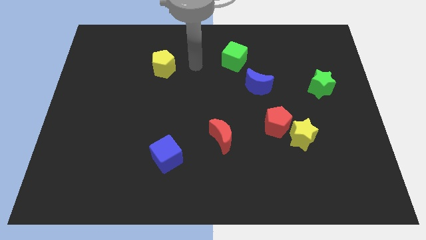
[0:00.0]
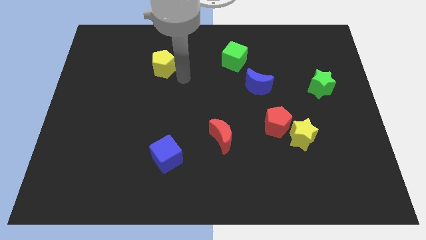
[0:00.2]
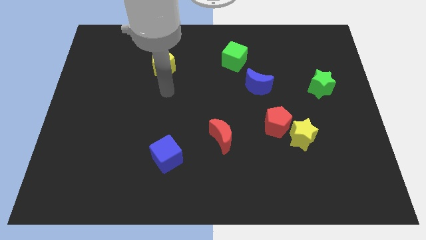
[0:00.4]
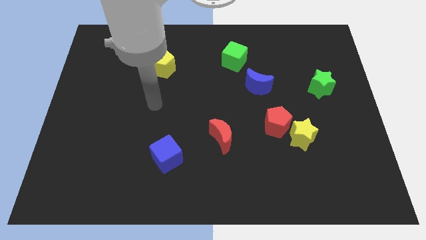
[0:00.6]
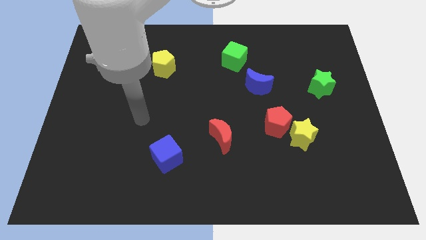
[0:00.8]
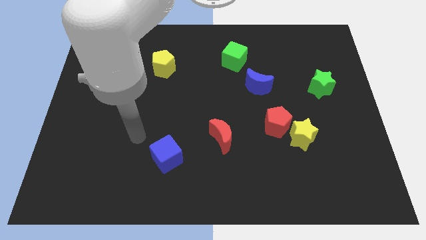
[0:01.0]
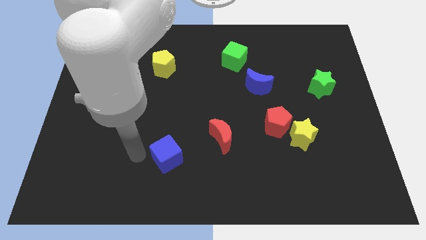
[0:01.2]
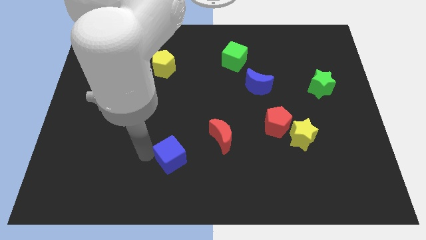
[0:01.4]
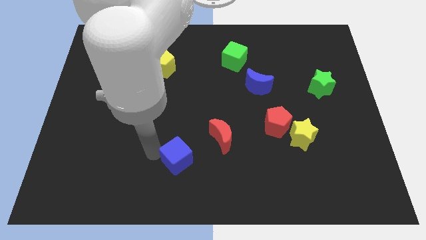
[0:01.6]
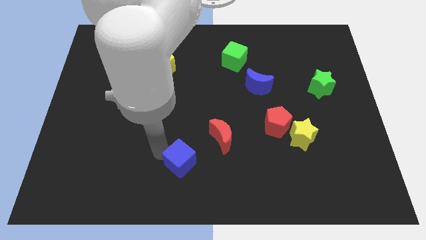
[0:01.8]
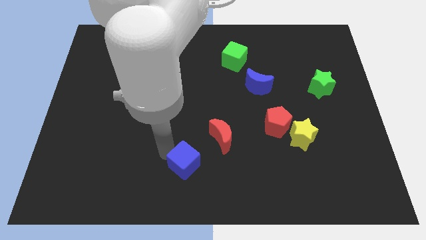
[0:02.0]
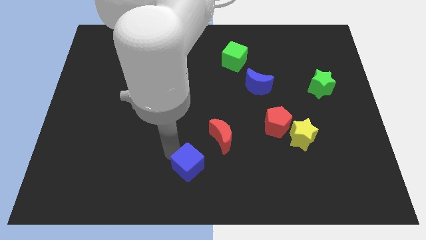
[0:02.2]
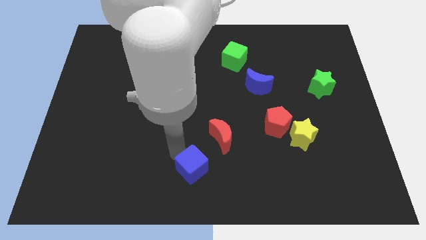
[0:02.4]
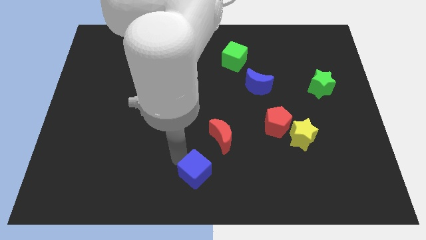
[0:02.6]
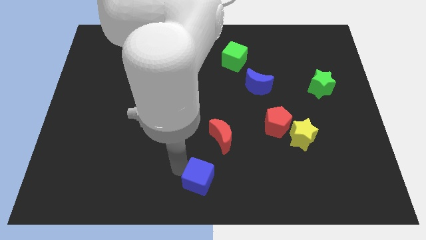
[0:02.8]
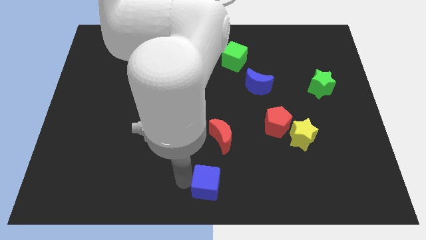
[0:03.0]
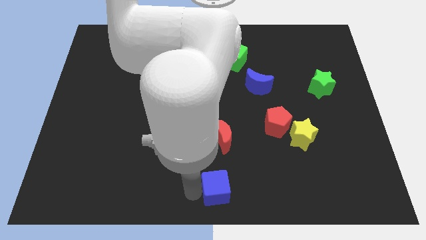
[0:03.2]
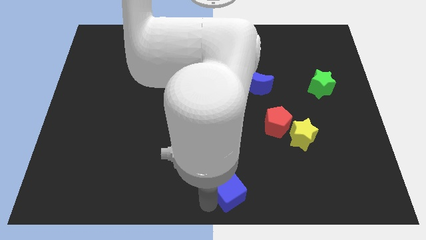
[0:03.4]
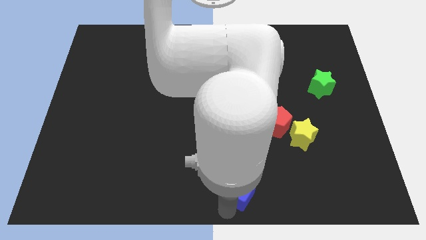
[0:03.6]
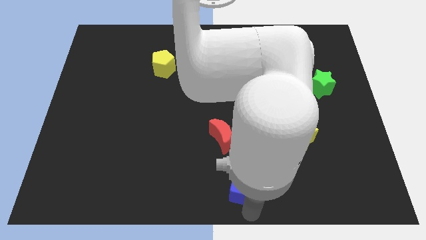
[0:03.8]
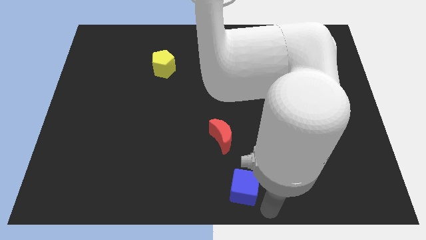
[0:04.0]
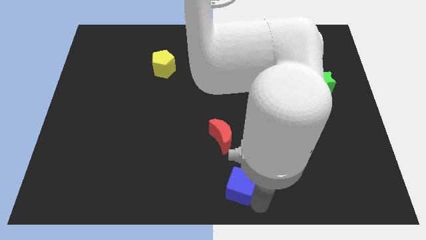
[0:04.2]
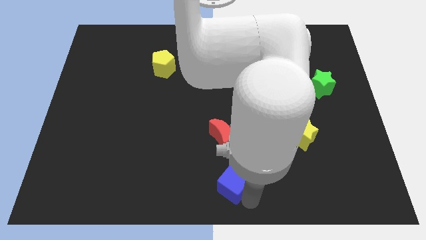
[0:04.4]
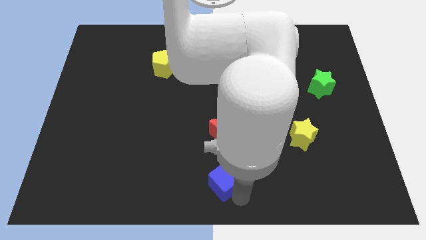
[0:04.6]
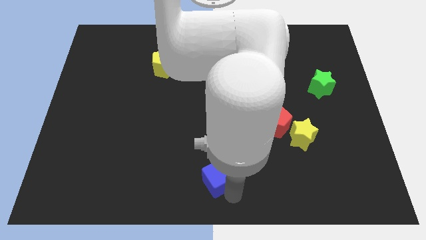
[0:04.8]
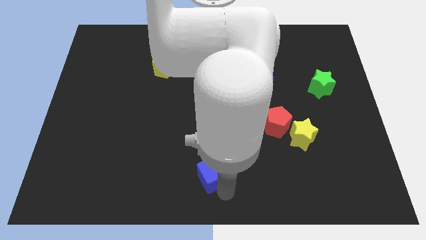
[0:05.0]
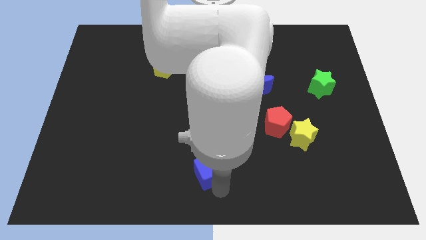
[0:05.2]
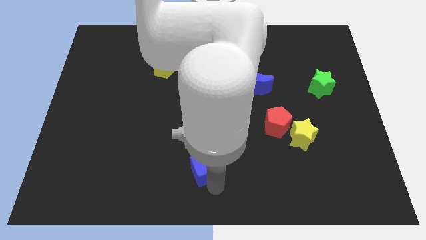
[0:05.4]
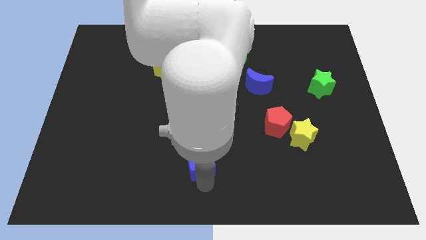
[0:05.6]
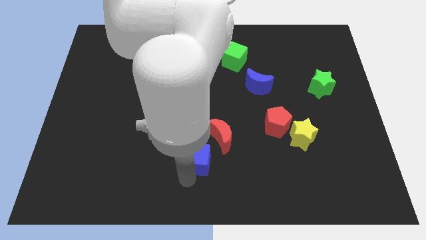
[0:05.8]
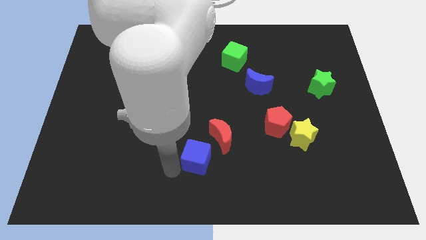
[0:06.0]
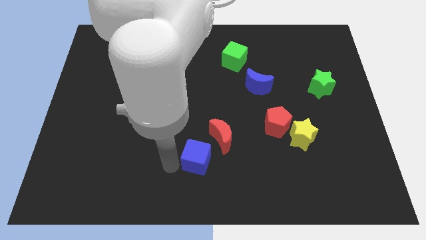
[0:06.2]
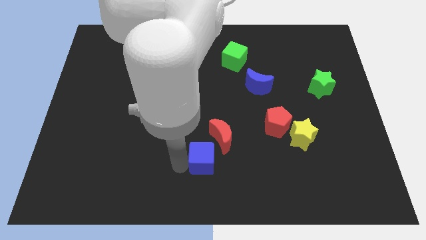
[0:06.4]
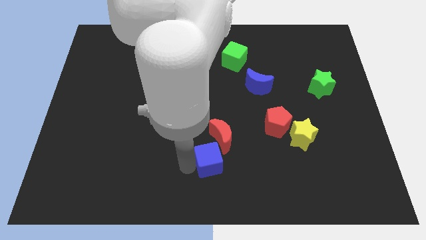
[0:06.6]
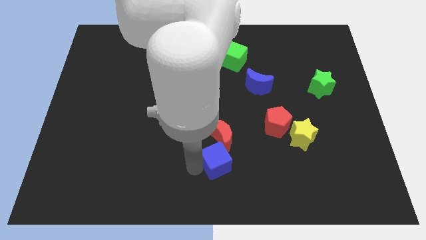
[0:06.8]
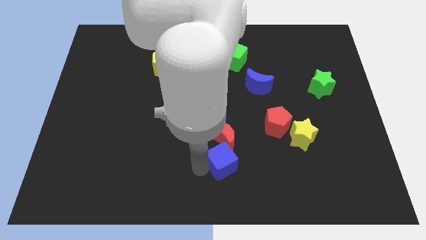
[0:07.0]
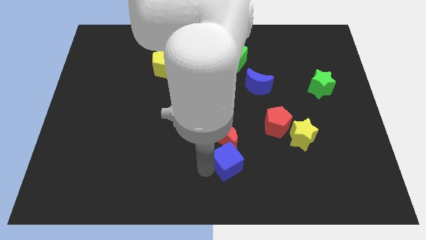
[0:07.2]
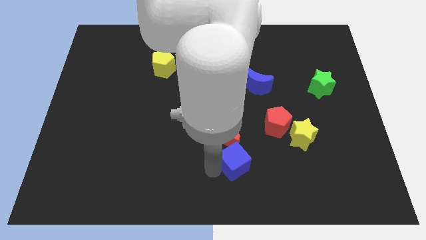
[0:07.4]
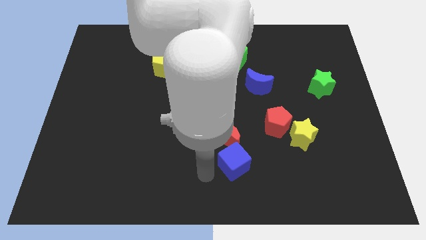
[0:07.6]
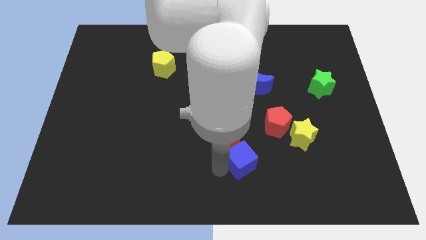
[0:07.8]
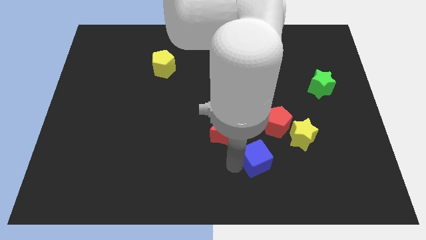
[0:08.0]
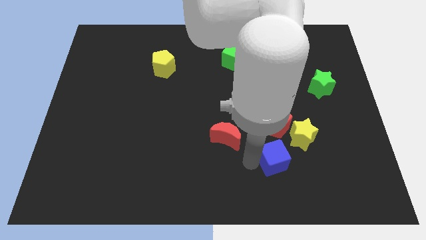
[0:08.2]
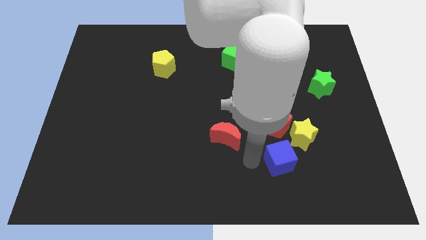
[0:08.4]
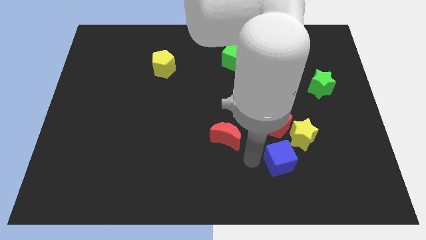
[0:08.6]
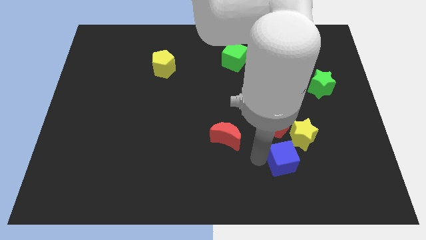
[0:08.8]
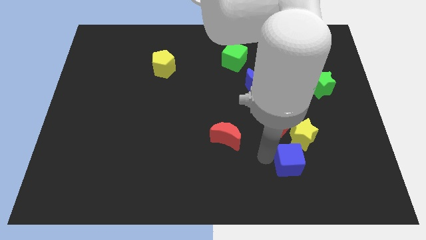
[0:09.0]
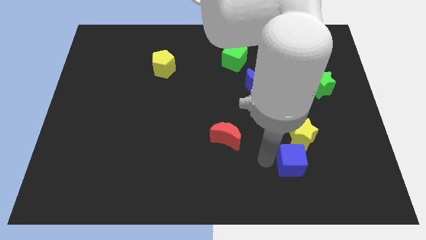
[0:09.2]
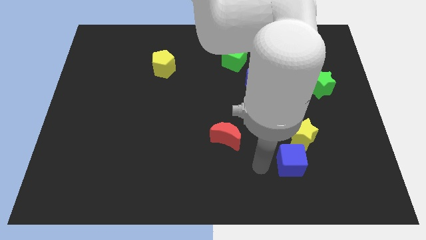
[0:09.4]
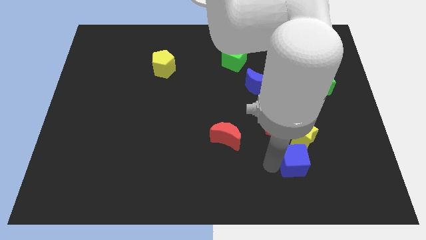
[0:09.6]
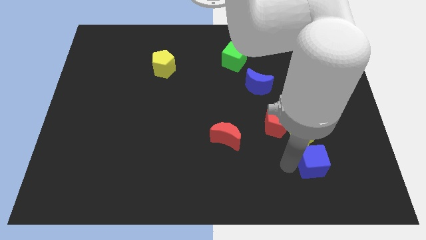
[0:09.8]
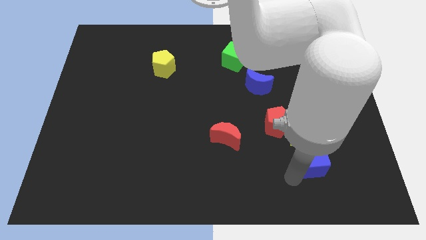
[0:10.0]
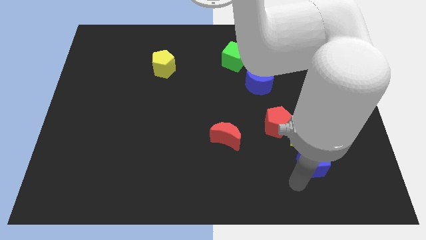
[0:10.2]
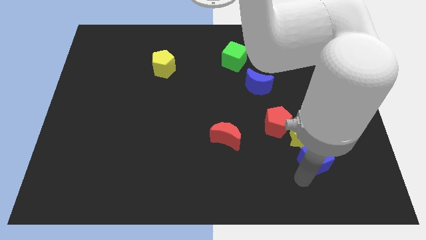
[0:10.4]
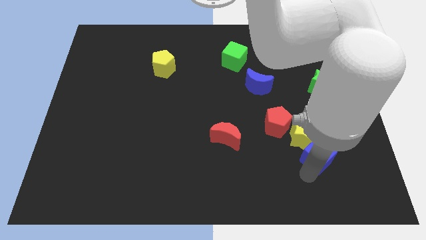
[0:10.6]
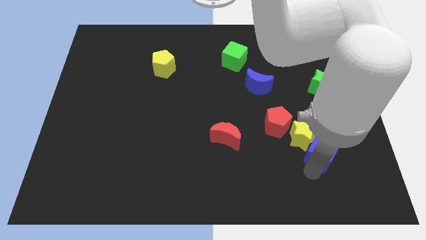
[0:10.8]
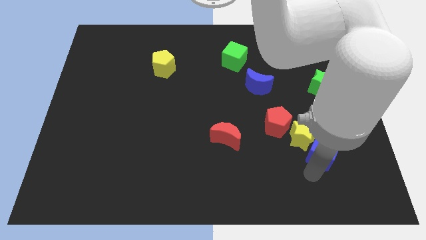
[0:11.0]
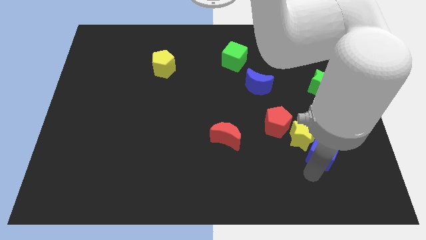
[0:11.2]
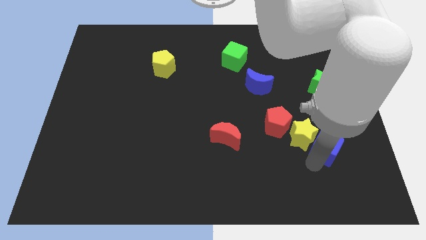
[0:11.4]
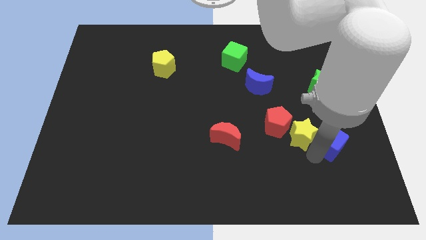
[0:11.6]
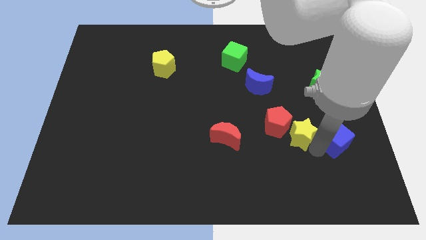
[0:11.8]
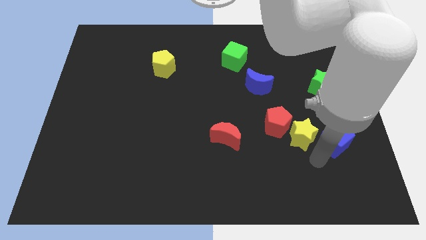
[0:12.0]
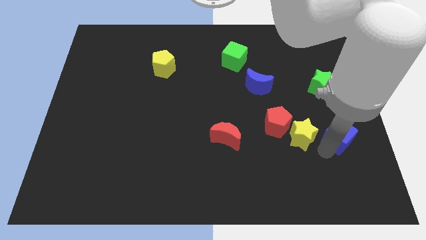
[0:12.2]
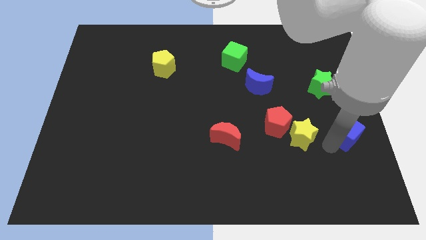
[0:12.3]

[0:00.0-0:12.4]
slide the blue cube to the center right

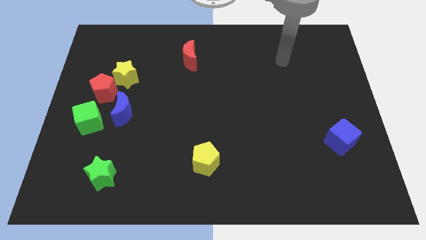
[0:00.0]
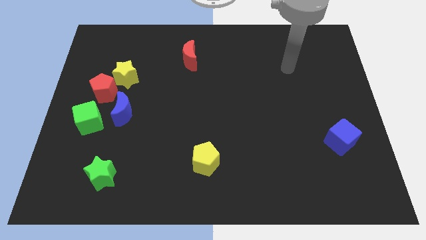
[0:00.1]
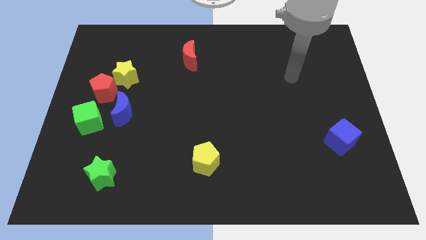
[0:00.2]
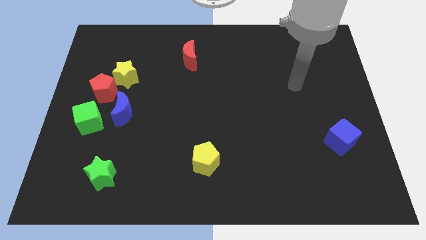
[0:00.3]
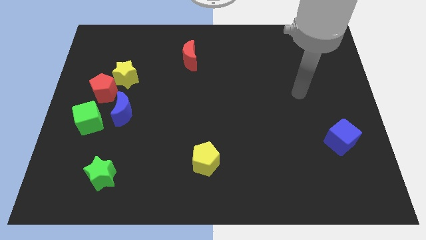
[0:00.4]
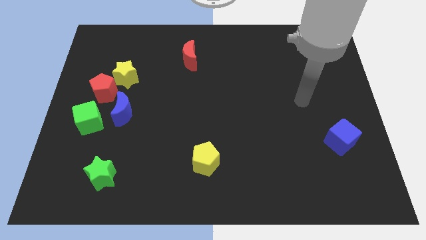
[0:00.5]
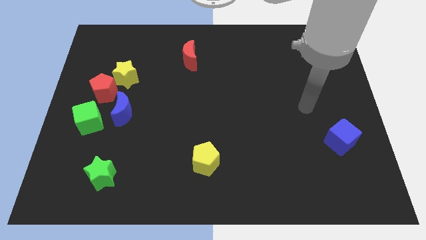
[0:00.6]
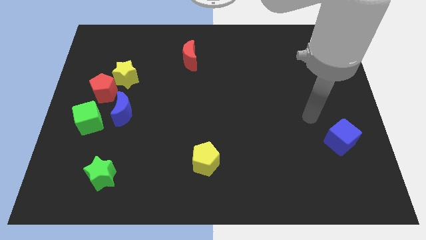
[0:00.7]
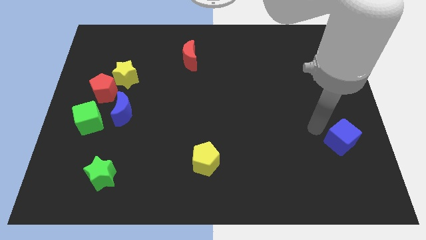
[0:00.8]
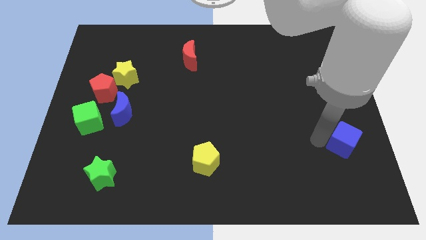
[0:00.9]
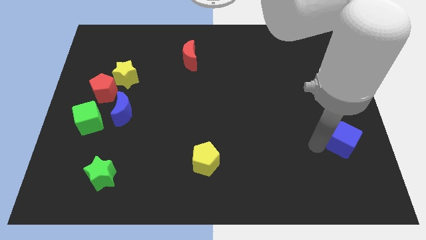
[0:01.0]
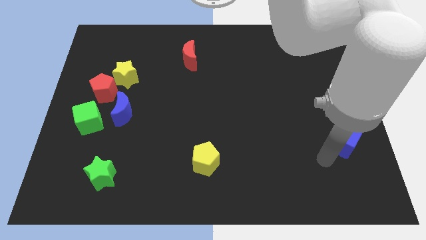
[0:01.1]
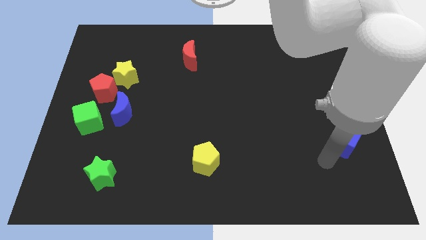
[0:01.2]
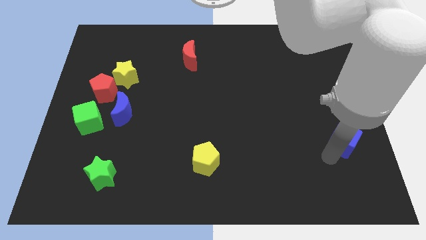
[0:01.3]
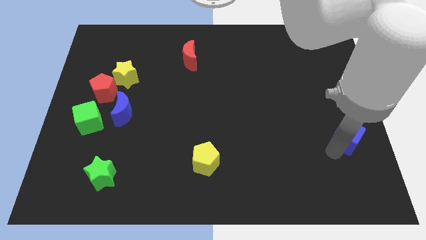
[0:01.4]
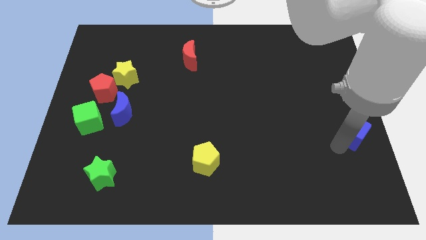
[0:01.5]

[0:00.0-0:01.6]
move the blue cube to the right side
